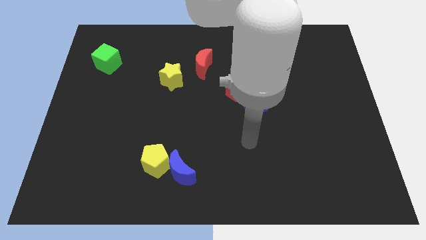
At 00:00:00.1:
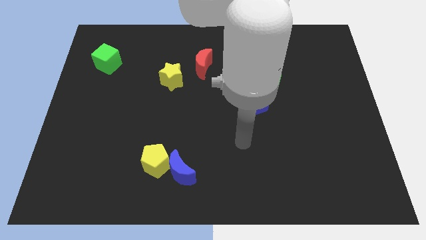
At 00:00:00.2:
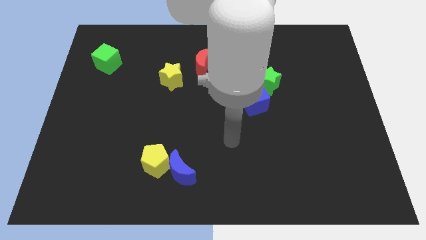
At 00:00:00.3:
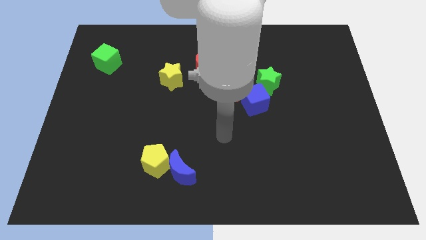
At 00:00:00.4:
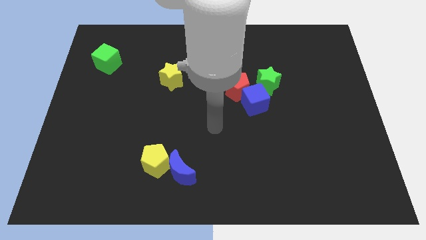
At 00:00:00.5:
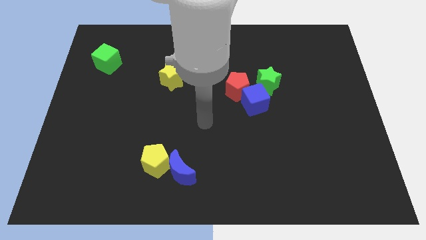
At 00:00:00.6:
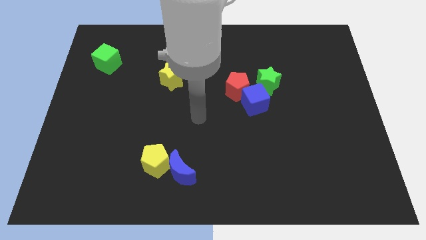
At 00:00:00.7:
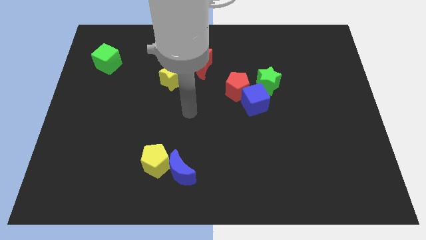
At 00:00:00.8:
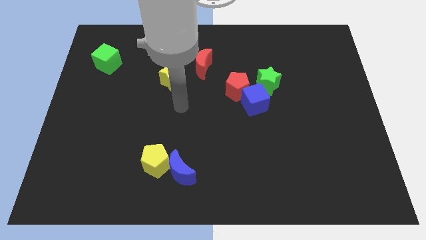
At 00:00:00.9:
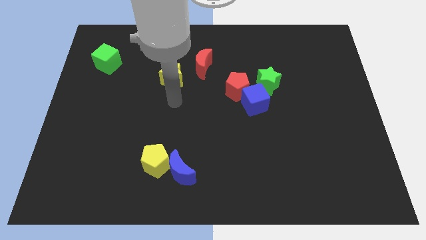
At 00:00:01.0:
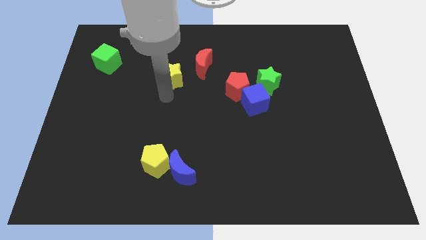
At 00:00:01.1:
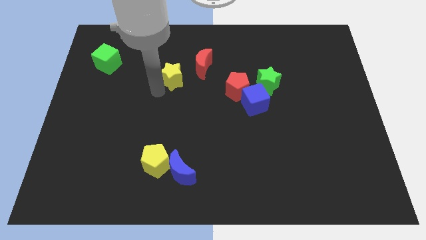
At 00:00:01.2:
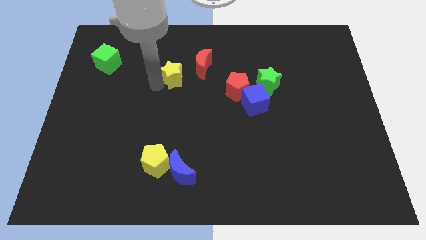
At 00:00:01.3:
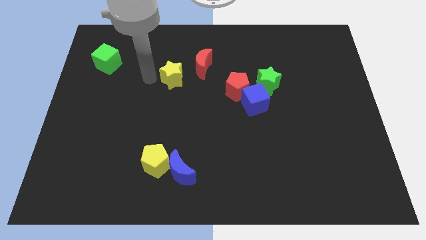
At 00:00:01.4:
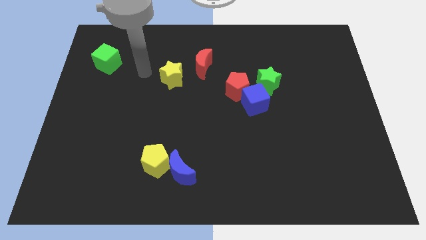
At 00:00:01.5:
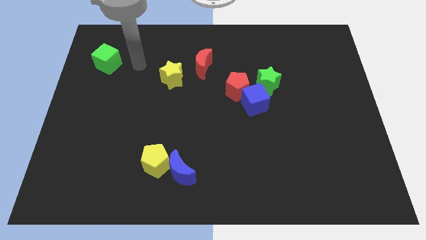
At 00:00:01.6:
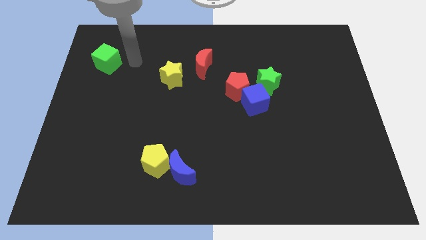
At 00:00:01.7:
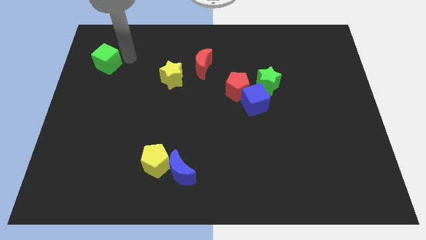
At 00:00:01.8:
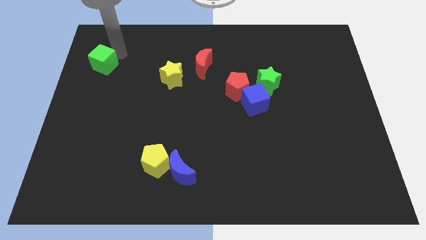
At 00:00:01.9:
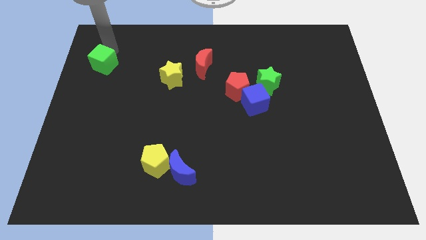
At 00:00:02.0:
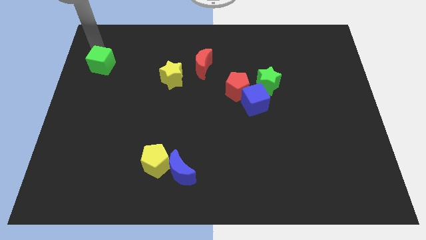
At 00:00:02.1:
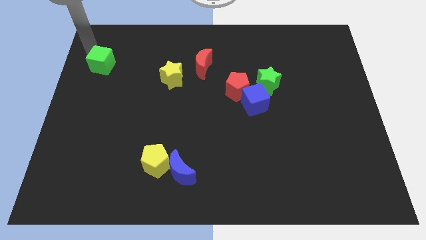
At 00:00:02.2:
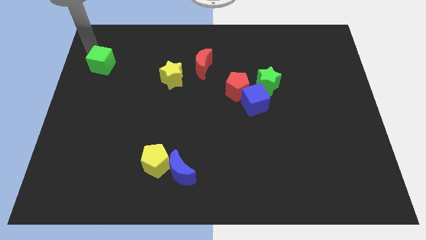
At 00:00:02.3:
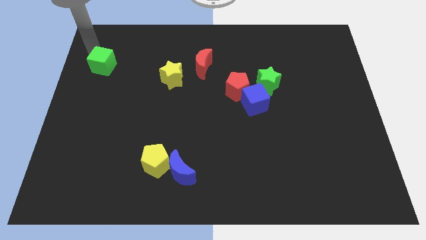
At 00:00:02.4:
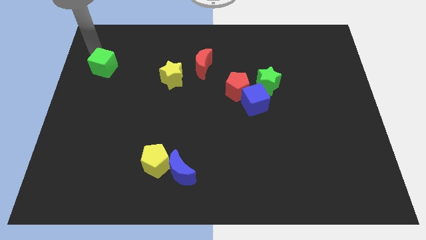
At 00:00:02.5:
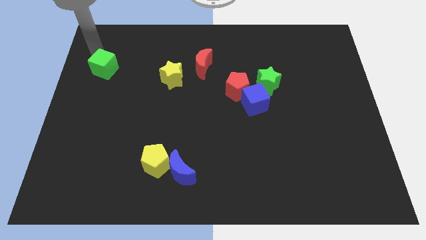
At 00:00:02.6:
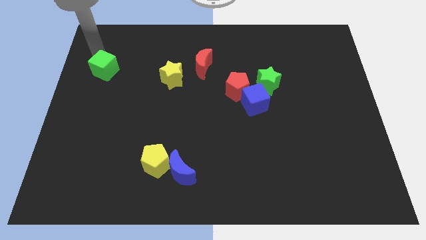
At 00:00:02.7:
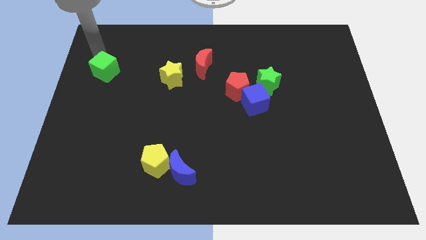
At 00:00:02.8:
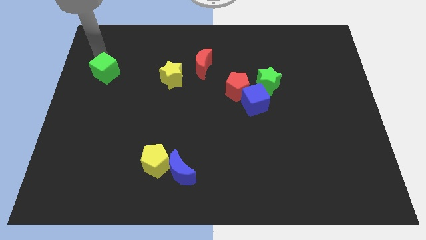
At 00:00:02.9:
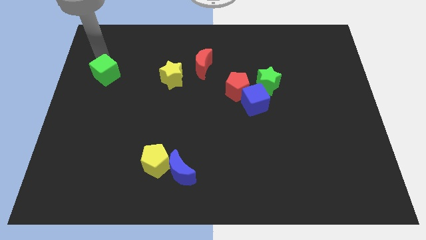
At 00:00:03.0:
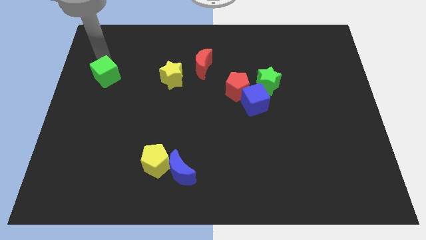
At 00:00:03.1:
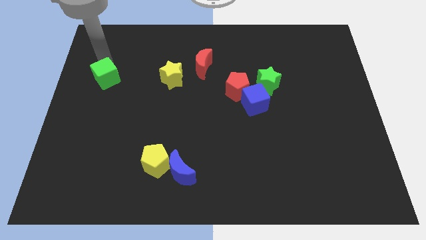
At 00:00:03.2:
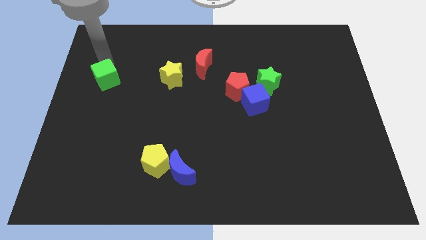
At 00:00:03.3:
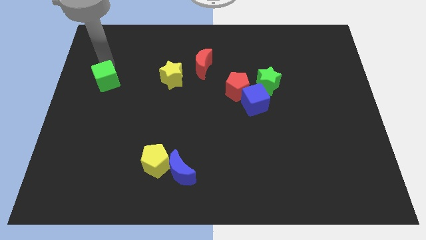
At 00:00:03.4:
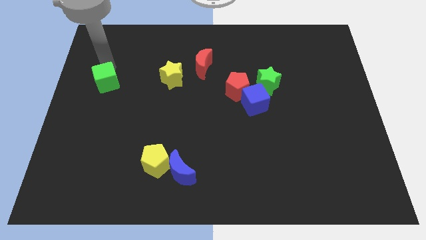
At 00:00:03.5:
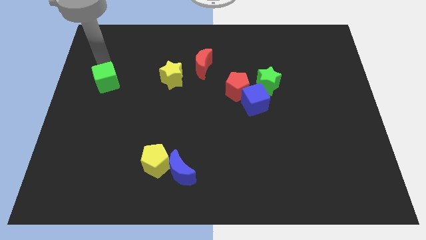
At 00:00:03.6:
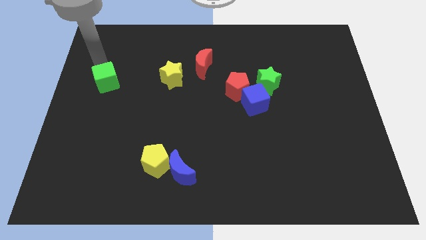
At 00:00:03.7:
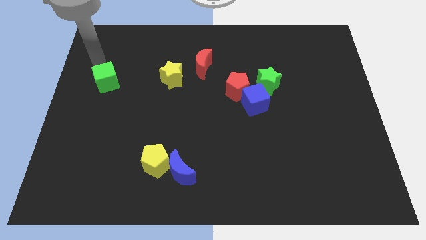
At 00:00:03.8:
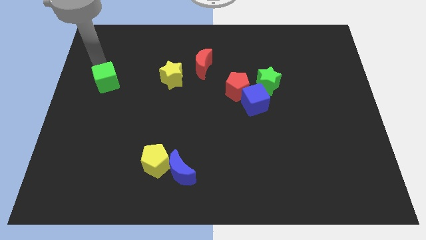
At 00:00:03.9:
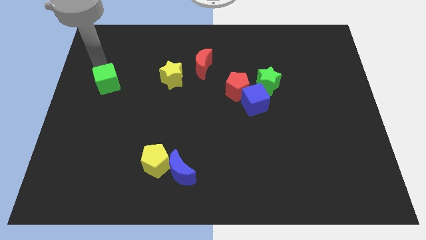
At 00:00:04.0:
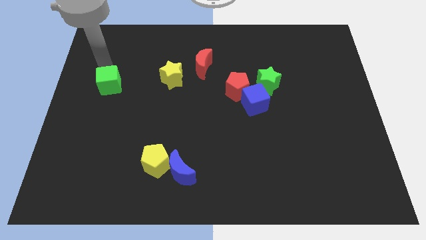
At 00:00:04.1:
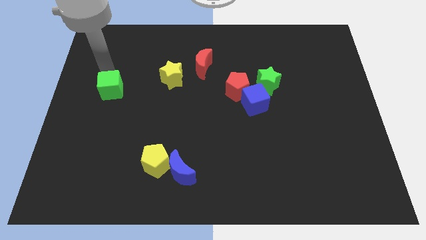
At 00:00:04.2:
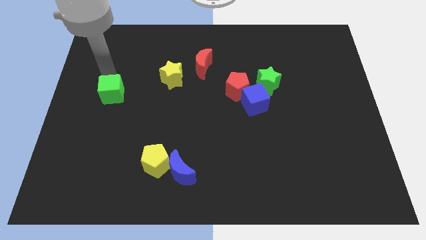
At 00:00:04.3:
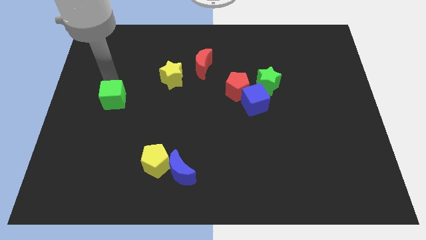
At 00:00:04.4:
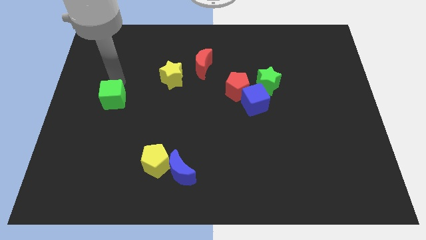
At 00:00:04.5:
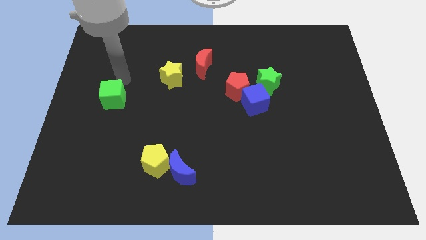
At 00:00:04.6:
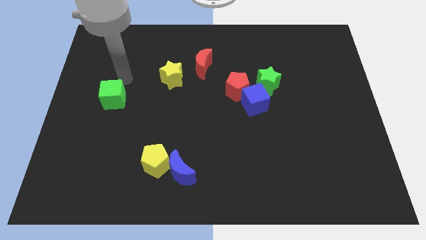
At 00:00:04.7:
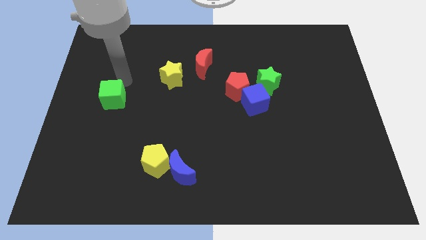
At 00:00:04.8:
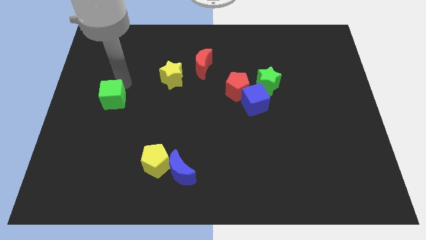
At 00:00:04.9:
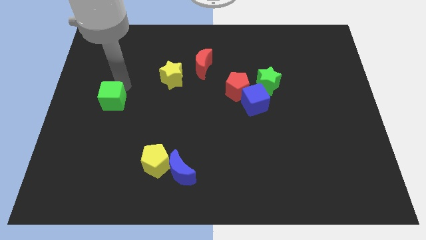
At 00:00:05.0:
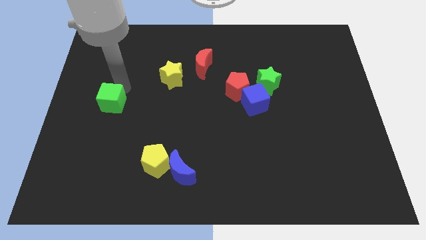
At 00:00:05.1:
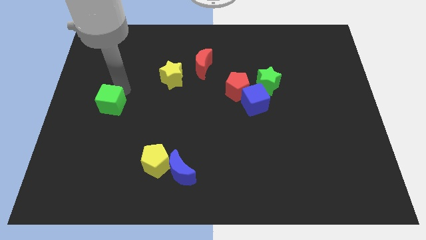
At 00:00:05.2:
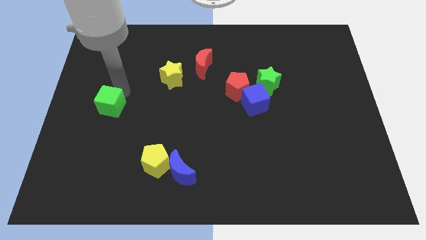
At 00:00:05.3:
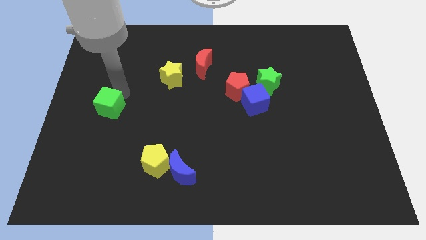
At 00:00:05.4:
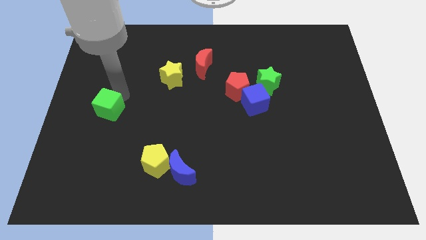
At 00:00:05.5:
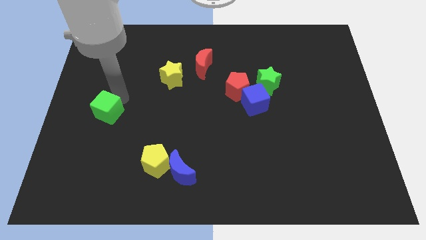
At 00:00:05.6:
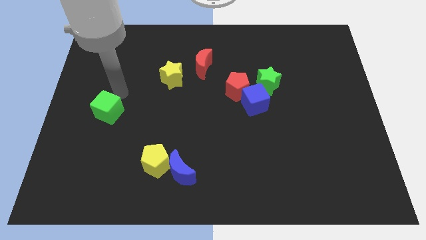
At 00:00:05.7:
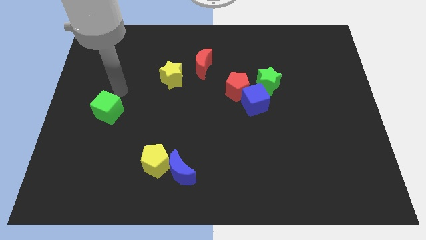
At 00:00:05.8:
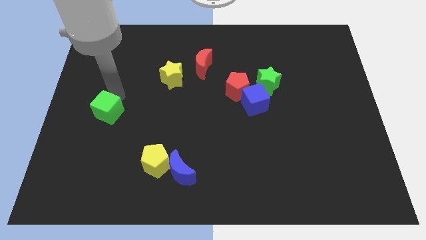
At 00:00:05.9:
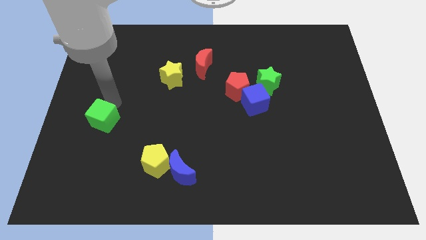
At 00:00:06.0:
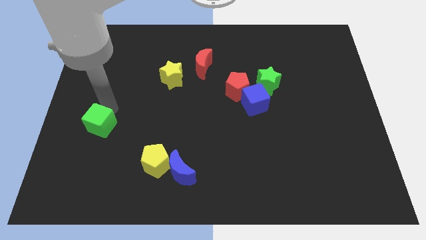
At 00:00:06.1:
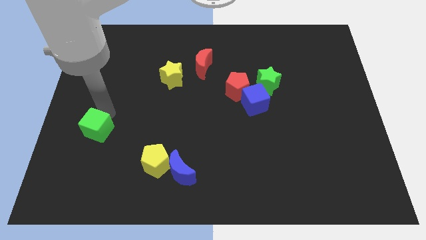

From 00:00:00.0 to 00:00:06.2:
slide the green cube down

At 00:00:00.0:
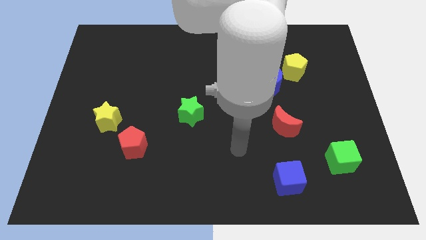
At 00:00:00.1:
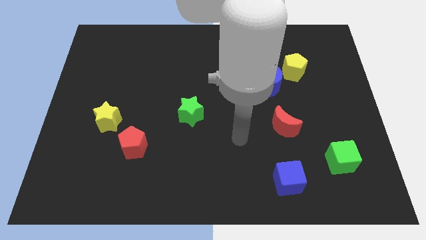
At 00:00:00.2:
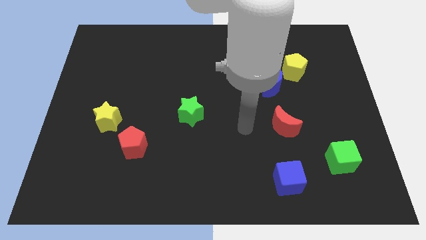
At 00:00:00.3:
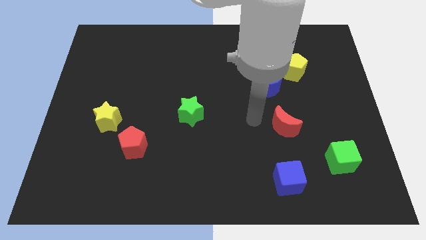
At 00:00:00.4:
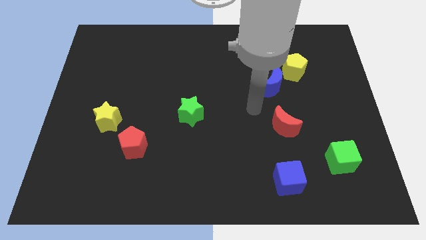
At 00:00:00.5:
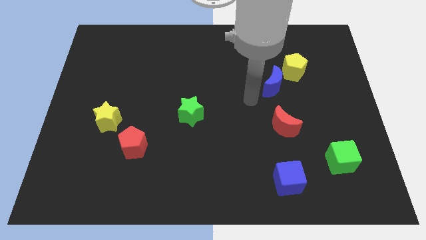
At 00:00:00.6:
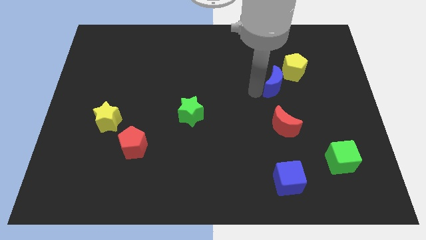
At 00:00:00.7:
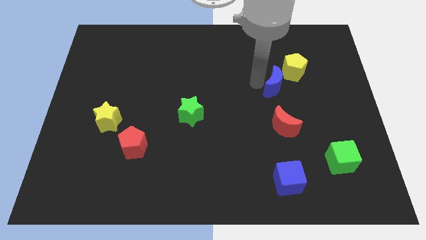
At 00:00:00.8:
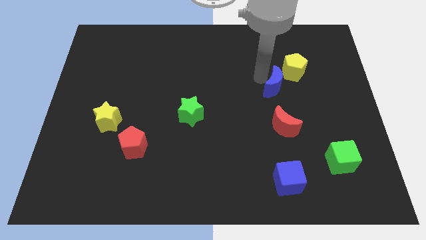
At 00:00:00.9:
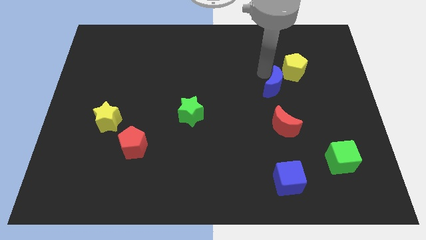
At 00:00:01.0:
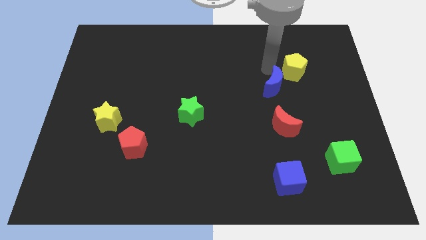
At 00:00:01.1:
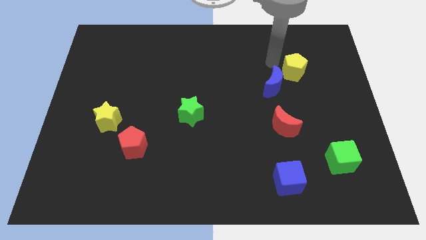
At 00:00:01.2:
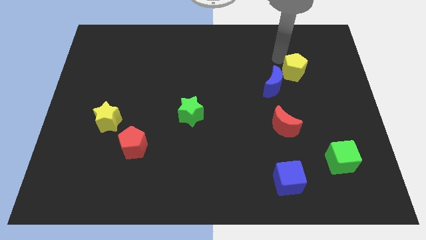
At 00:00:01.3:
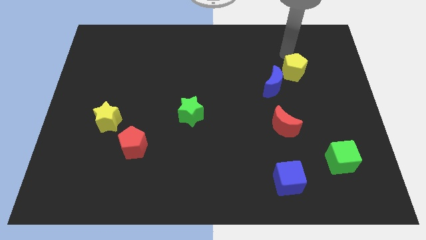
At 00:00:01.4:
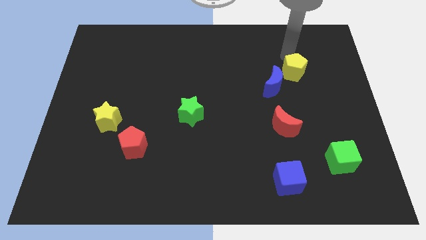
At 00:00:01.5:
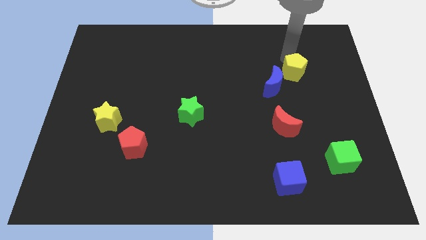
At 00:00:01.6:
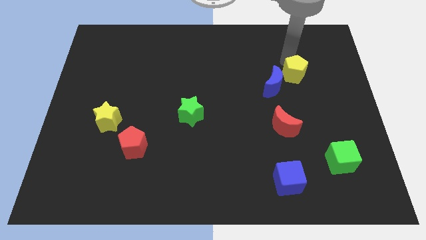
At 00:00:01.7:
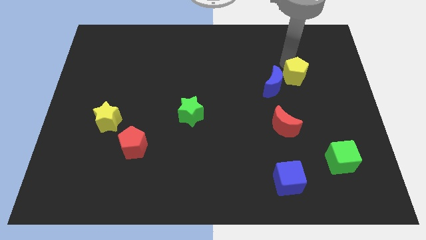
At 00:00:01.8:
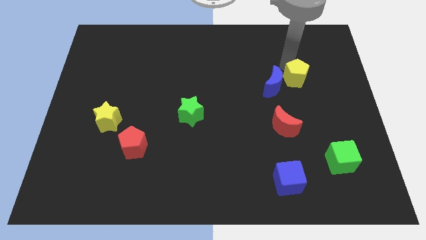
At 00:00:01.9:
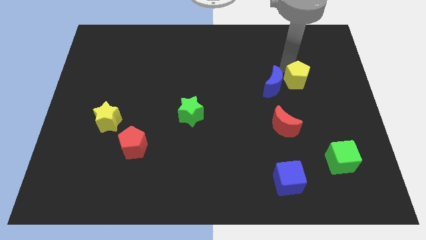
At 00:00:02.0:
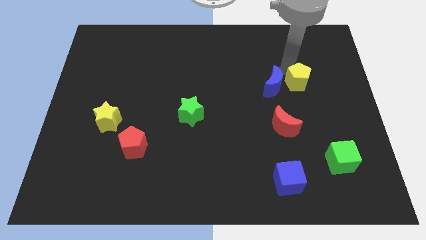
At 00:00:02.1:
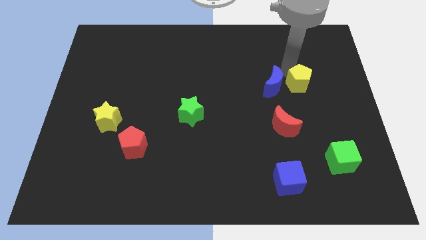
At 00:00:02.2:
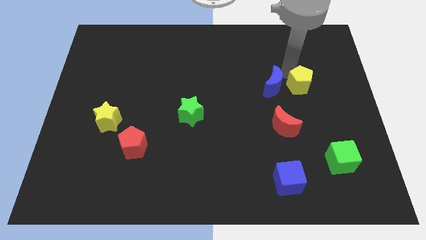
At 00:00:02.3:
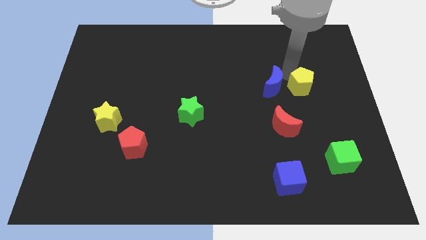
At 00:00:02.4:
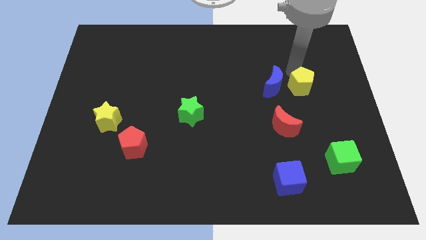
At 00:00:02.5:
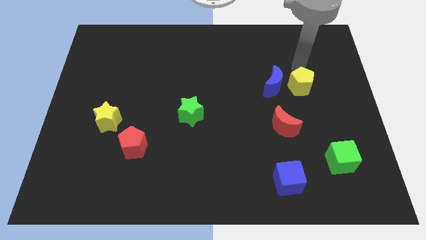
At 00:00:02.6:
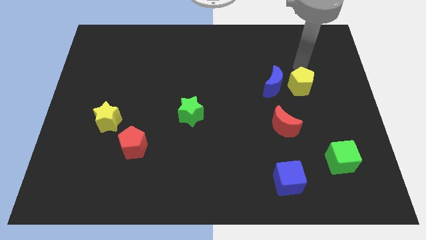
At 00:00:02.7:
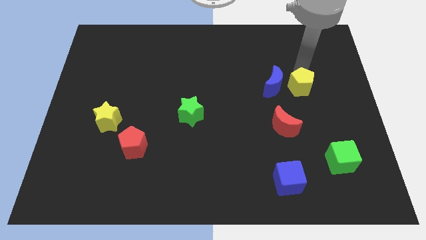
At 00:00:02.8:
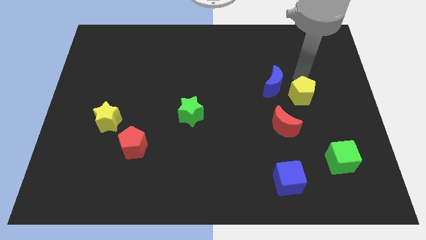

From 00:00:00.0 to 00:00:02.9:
slightly slide the yellow pentagon down
